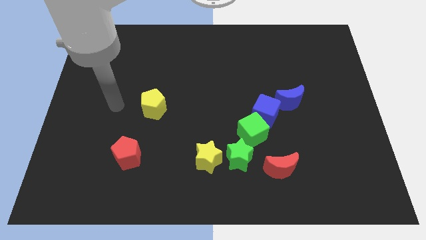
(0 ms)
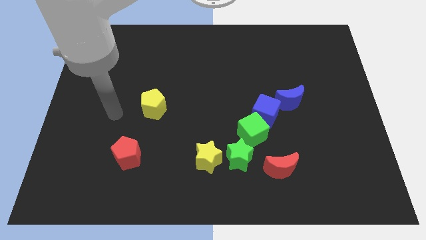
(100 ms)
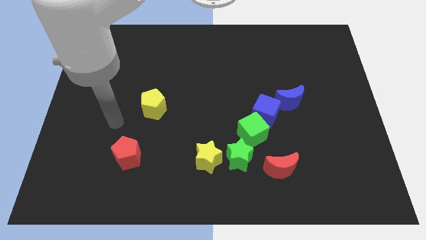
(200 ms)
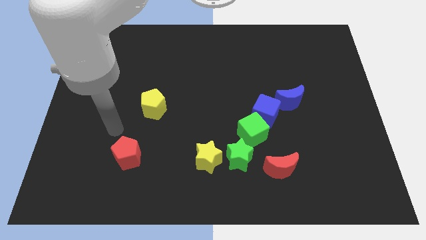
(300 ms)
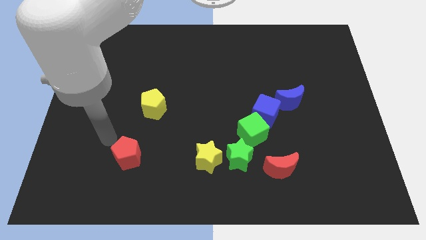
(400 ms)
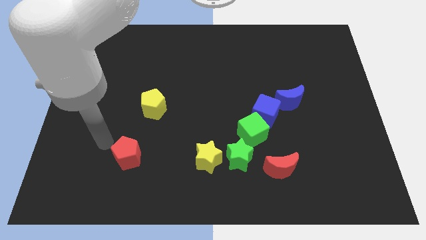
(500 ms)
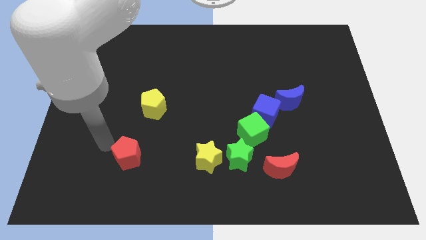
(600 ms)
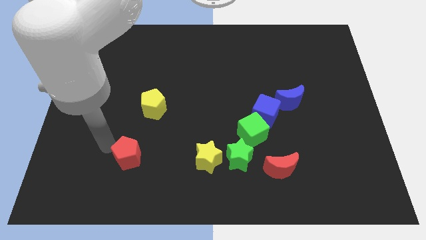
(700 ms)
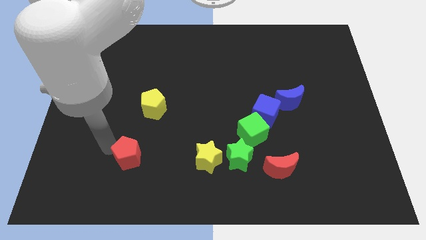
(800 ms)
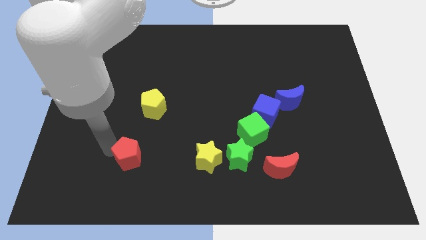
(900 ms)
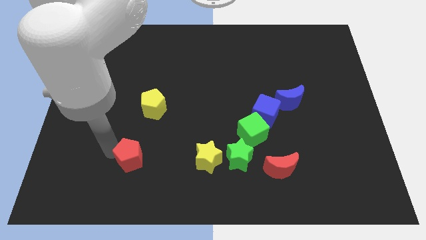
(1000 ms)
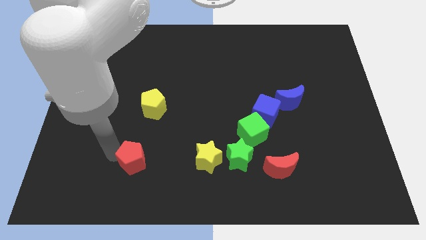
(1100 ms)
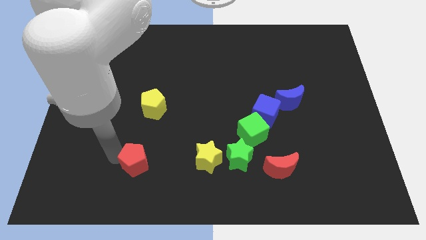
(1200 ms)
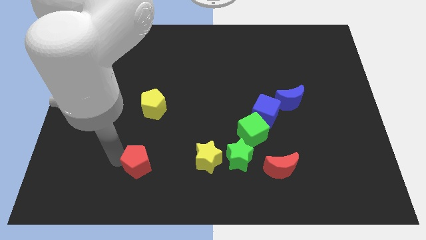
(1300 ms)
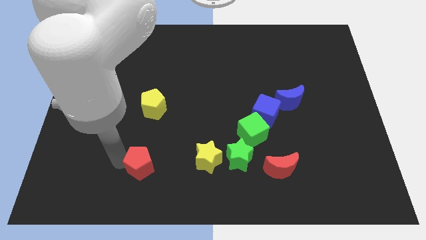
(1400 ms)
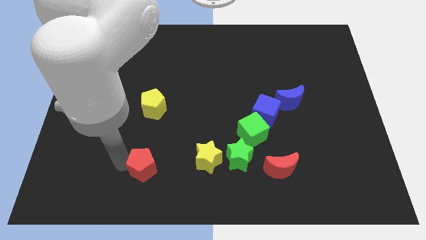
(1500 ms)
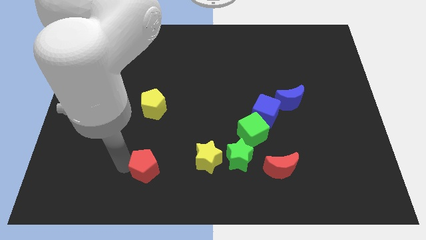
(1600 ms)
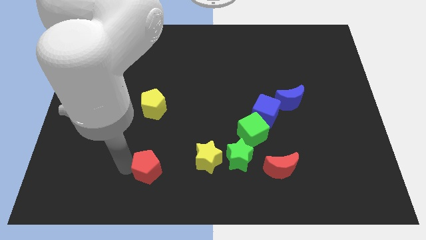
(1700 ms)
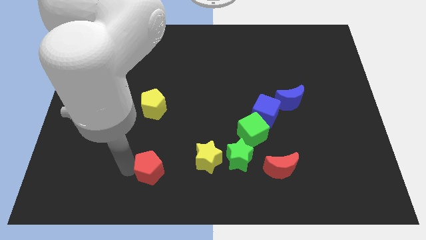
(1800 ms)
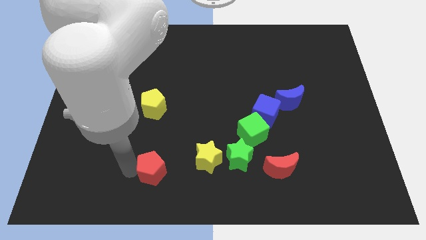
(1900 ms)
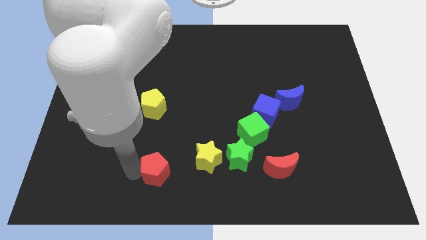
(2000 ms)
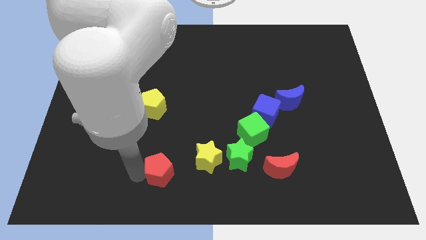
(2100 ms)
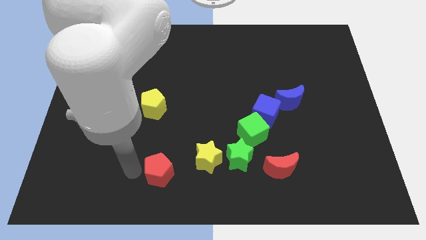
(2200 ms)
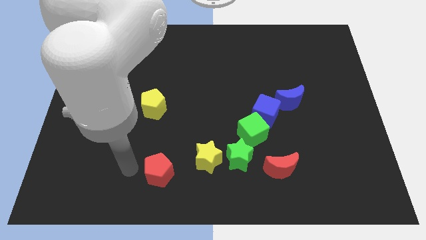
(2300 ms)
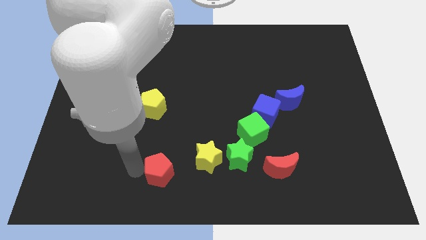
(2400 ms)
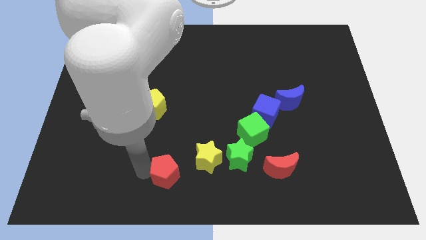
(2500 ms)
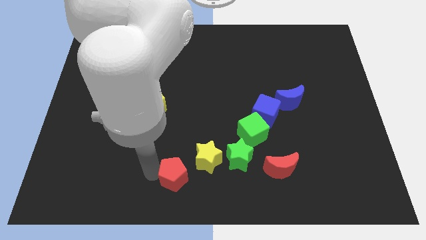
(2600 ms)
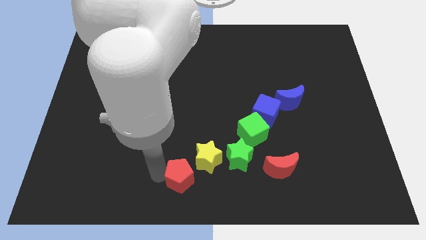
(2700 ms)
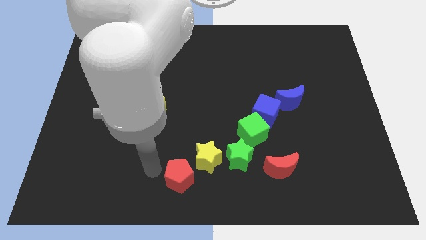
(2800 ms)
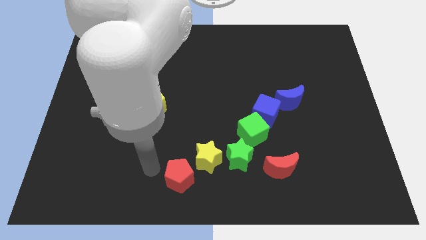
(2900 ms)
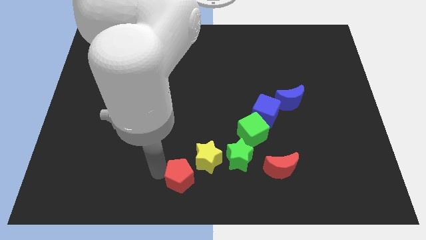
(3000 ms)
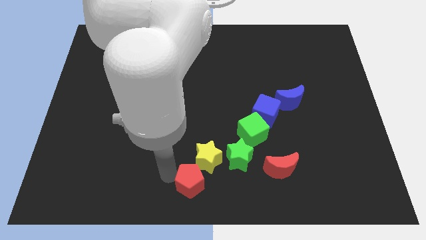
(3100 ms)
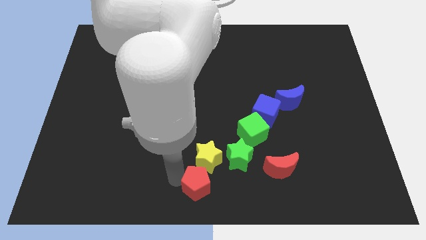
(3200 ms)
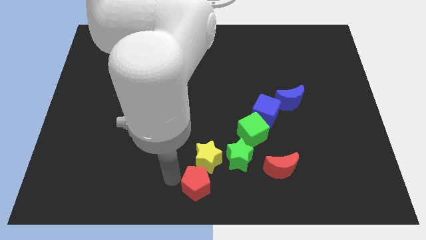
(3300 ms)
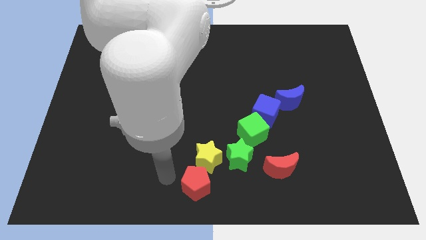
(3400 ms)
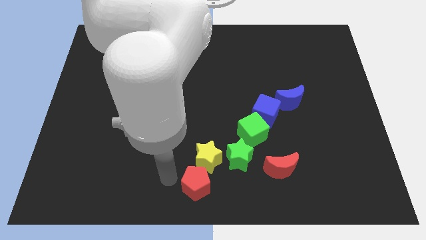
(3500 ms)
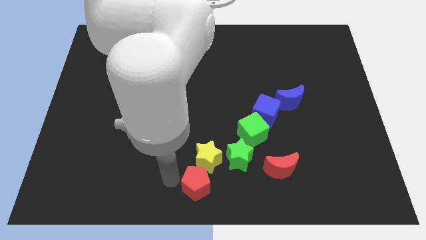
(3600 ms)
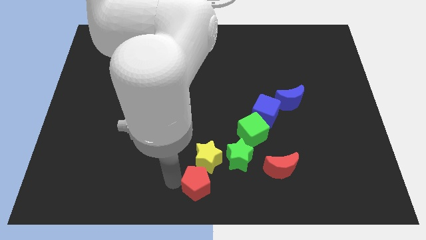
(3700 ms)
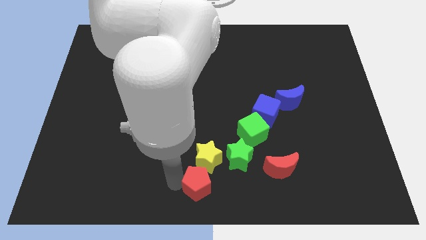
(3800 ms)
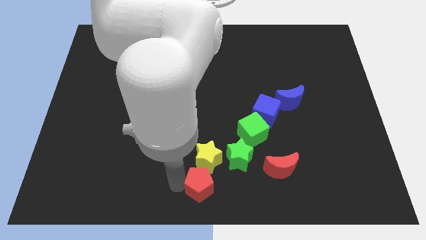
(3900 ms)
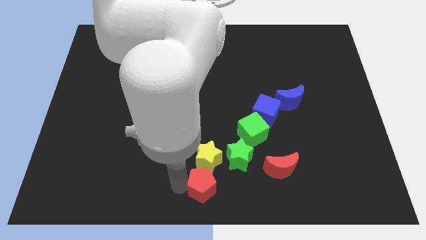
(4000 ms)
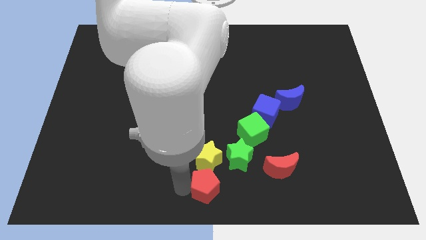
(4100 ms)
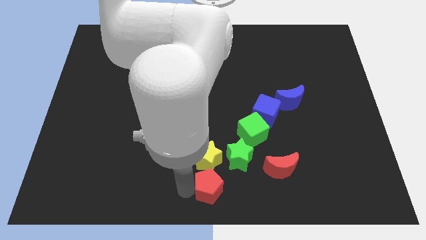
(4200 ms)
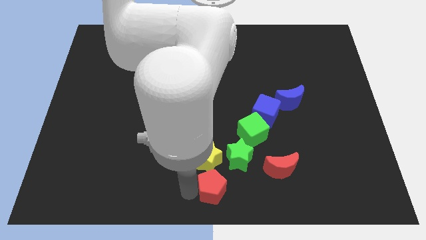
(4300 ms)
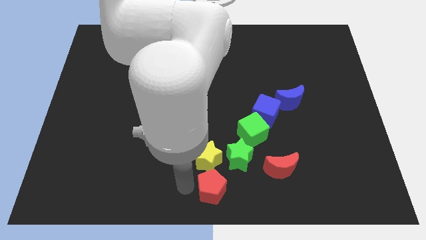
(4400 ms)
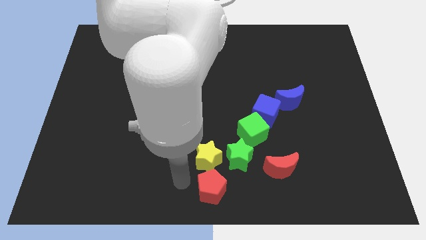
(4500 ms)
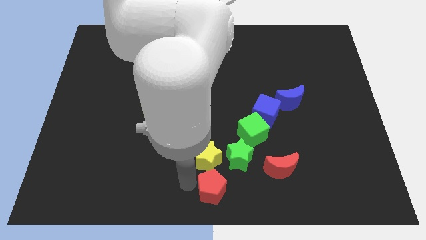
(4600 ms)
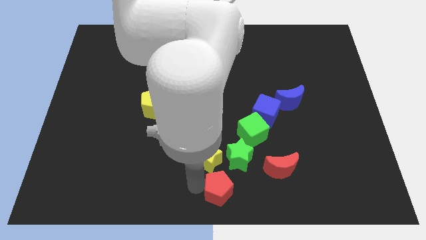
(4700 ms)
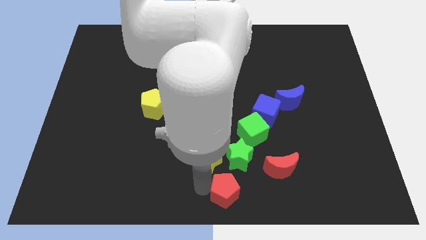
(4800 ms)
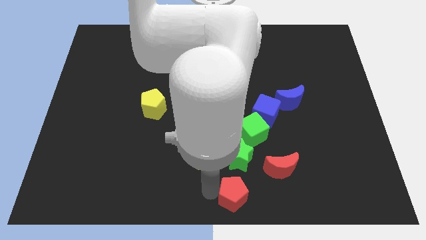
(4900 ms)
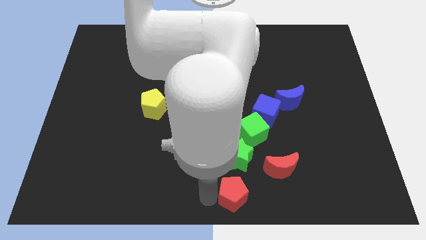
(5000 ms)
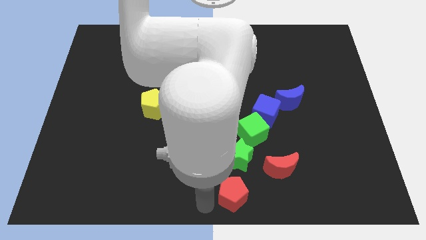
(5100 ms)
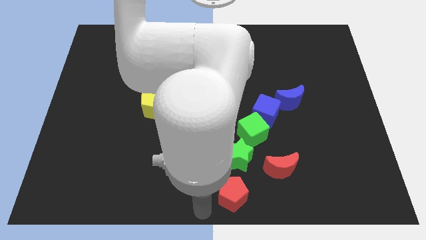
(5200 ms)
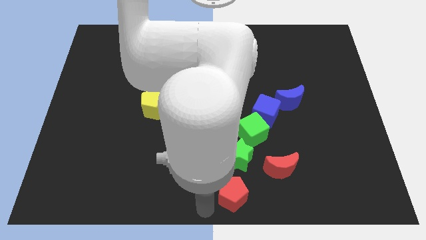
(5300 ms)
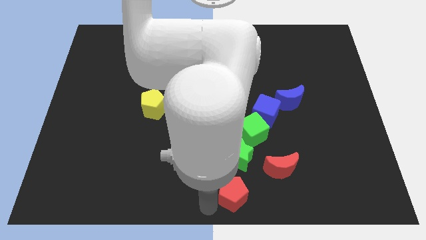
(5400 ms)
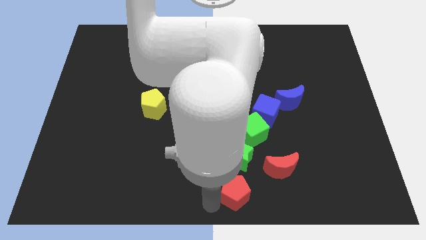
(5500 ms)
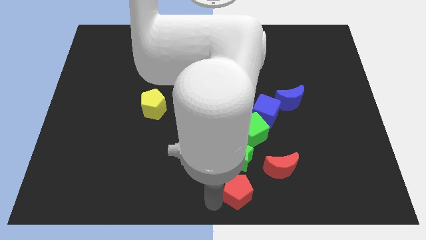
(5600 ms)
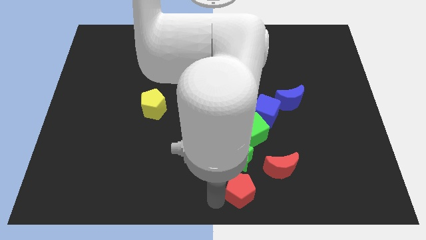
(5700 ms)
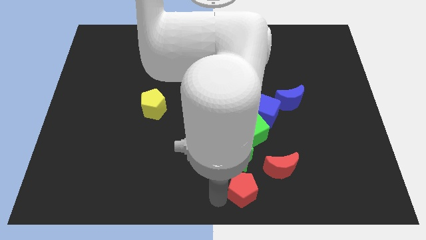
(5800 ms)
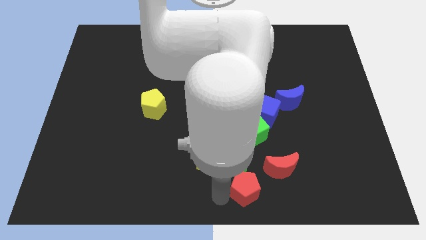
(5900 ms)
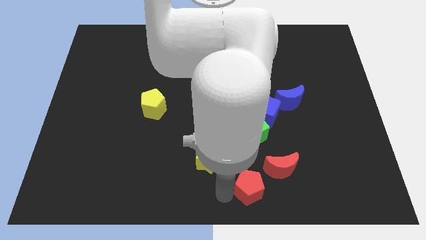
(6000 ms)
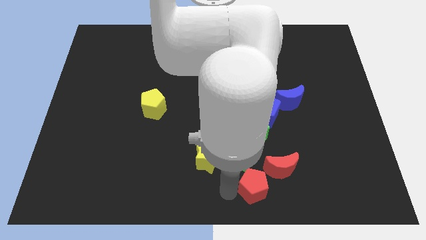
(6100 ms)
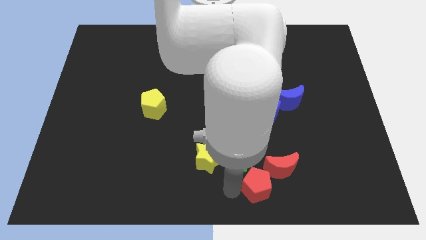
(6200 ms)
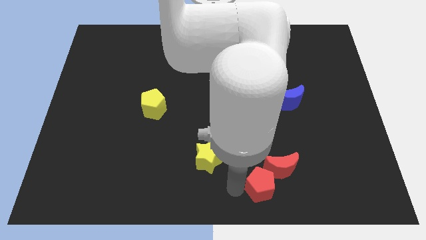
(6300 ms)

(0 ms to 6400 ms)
slide the red pentagon next to the red moon

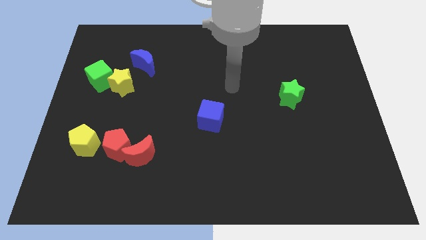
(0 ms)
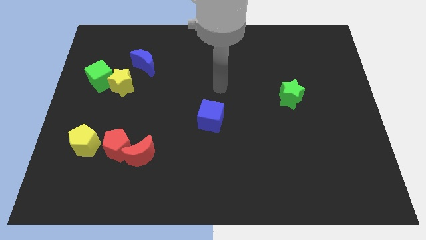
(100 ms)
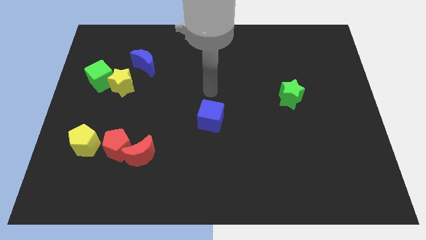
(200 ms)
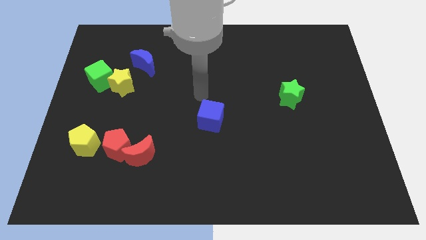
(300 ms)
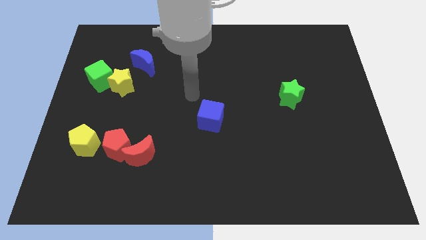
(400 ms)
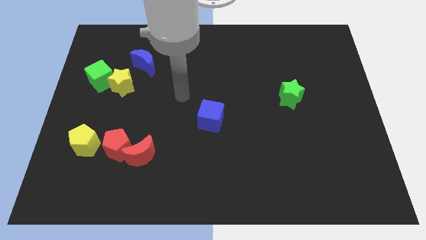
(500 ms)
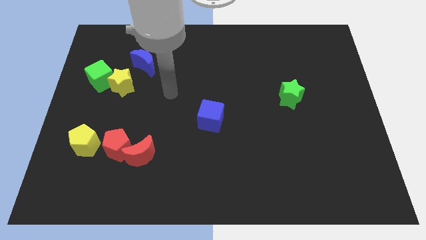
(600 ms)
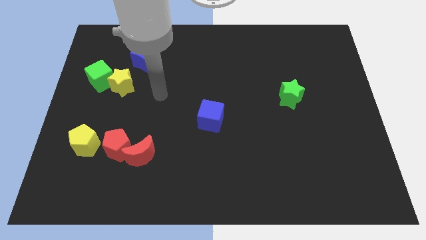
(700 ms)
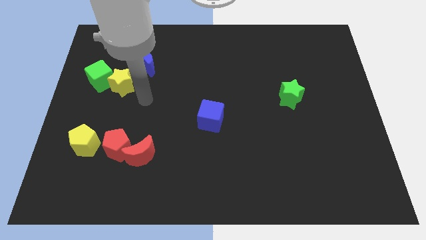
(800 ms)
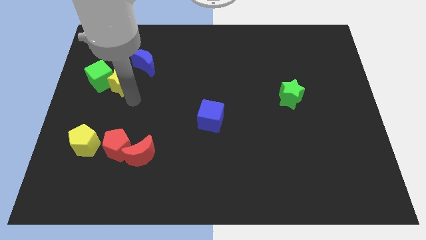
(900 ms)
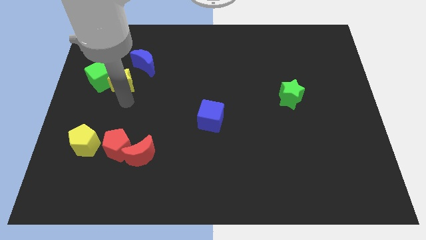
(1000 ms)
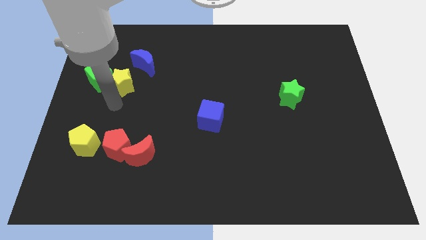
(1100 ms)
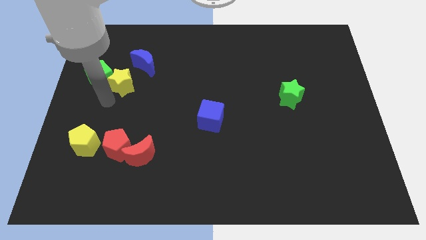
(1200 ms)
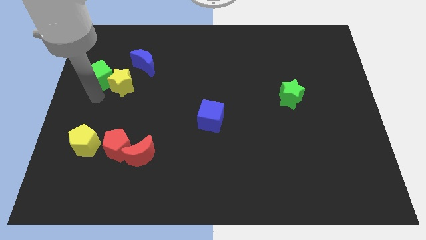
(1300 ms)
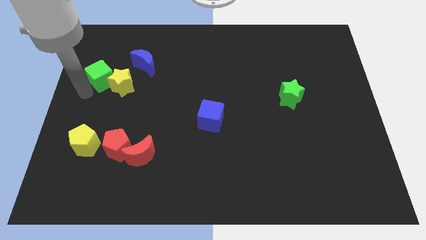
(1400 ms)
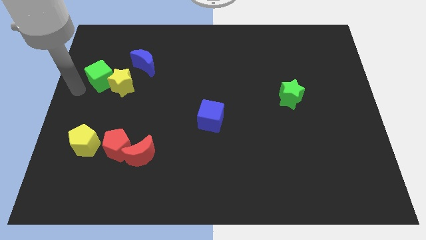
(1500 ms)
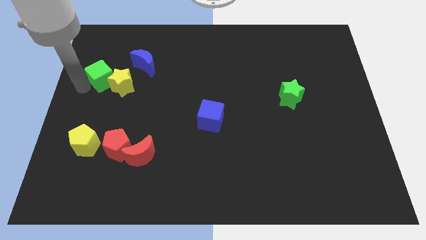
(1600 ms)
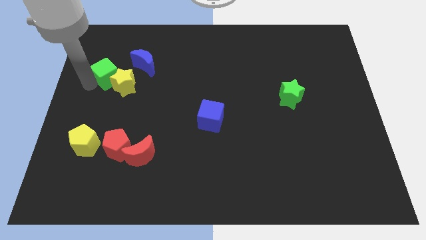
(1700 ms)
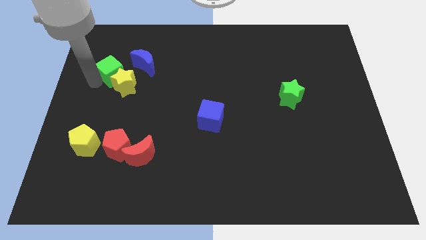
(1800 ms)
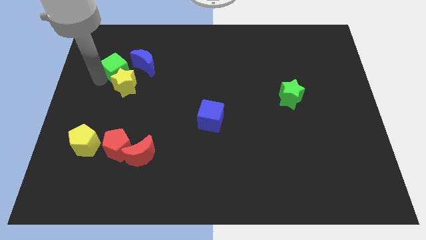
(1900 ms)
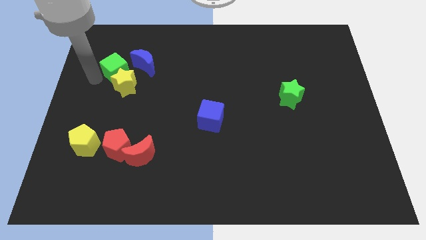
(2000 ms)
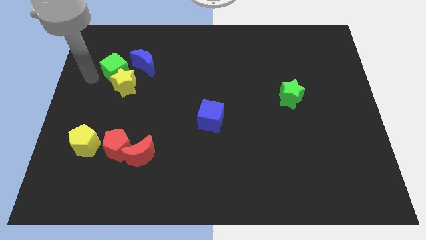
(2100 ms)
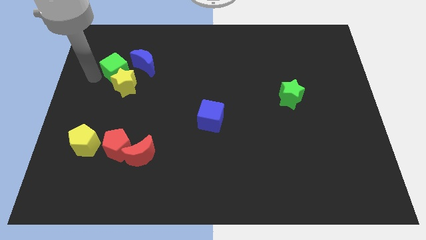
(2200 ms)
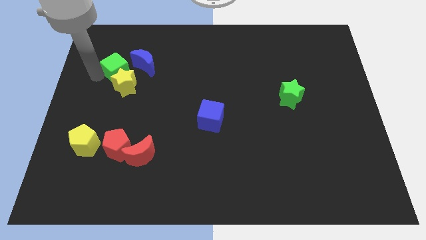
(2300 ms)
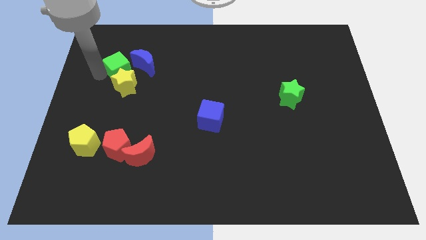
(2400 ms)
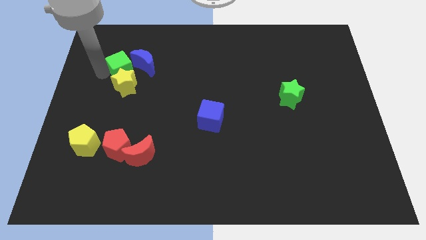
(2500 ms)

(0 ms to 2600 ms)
slide the green cube next to the blue moon
